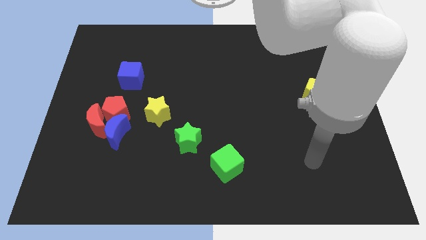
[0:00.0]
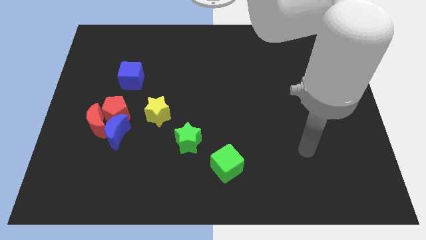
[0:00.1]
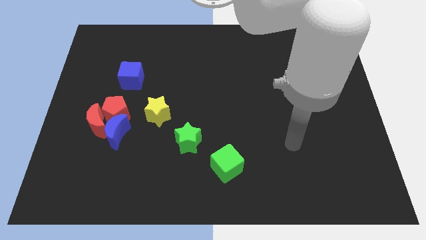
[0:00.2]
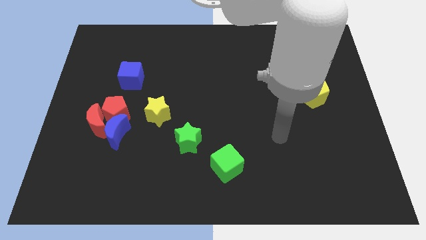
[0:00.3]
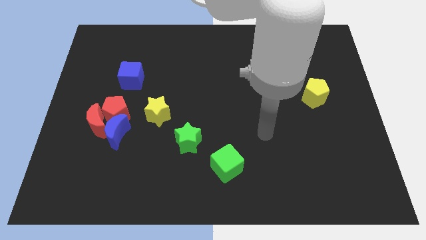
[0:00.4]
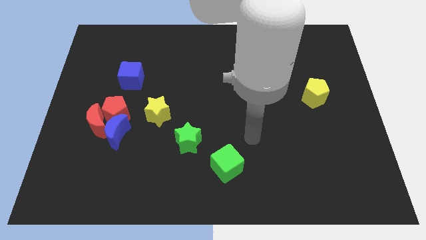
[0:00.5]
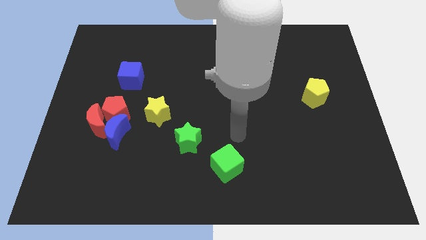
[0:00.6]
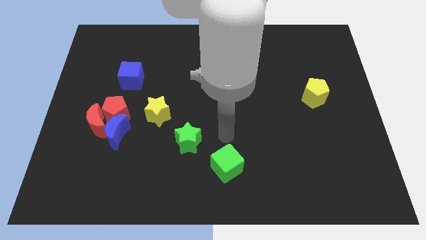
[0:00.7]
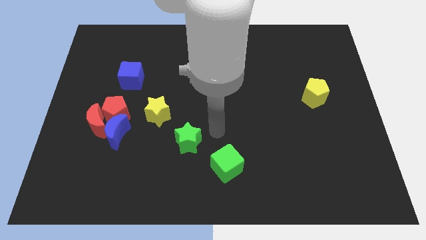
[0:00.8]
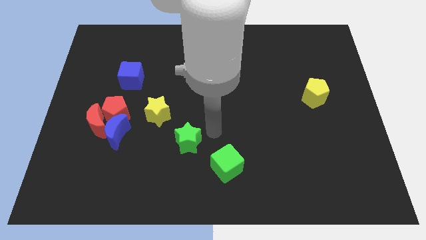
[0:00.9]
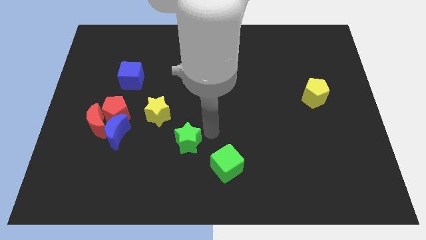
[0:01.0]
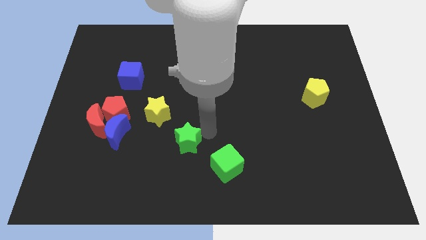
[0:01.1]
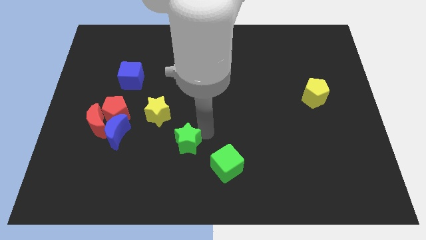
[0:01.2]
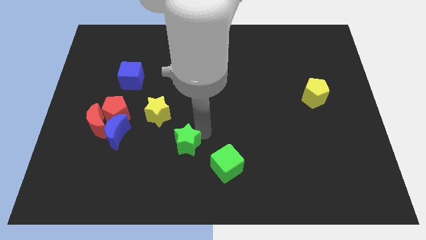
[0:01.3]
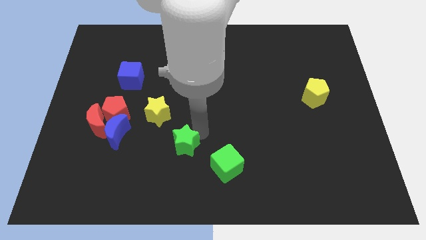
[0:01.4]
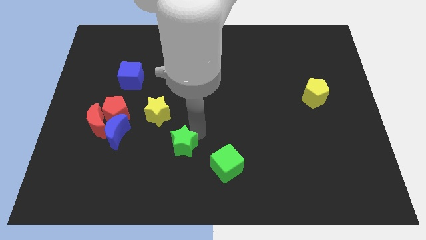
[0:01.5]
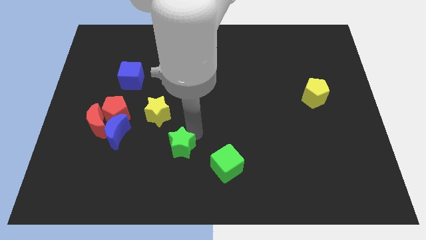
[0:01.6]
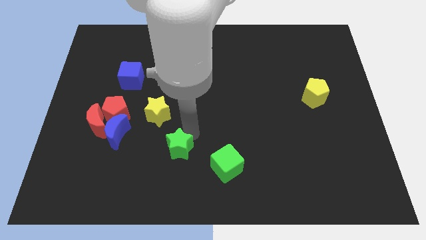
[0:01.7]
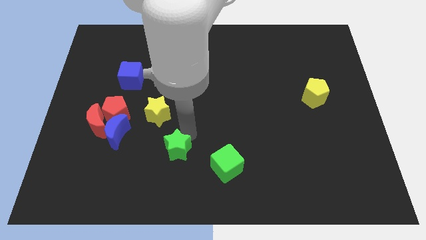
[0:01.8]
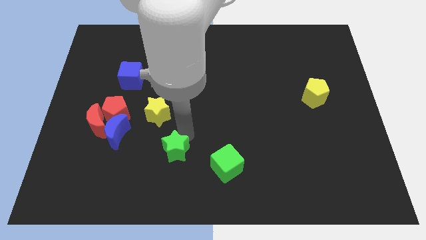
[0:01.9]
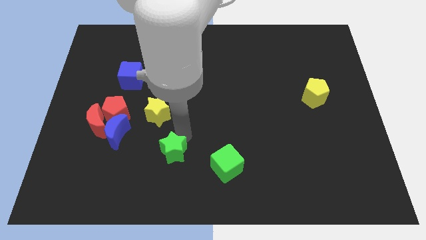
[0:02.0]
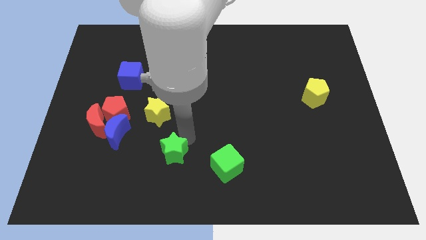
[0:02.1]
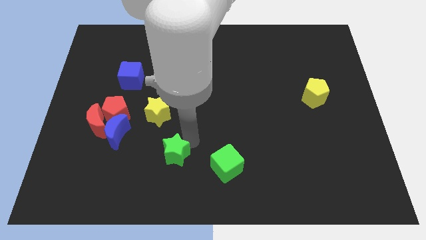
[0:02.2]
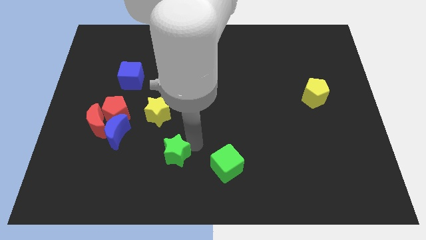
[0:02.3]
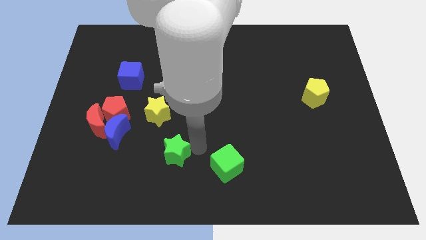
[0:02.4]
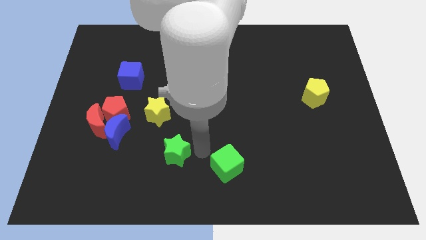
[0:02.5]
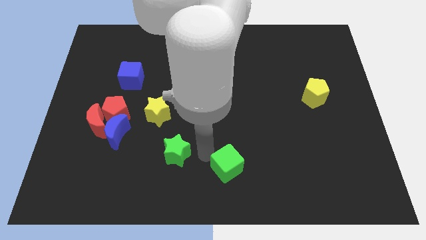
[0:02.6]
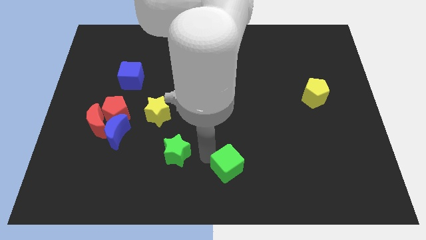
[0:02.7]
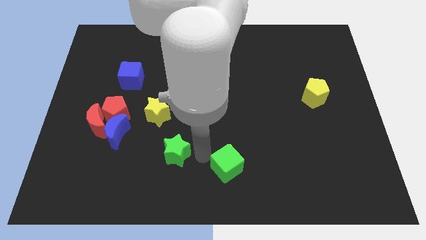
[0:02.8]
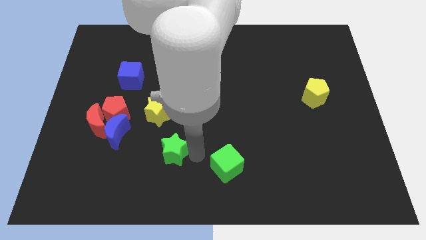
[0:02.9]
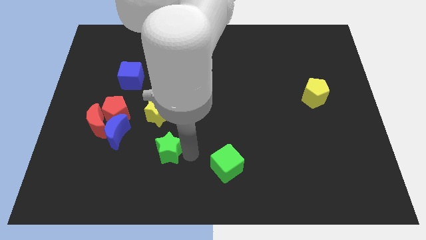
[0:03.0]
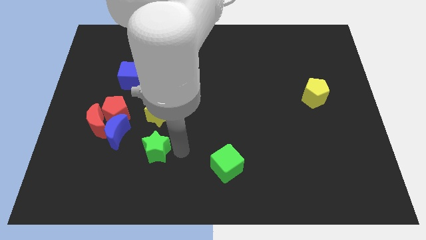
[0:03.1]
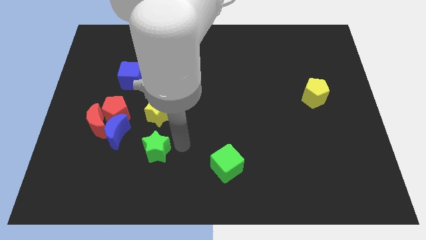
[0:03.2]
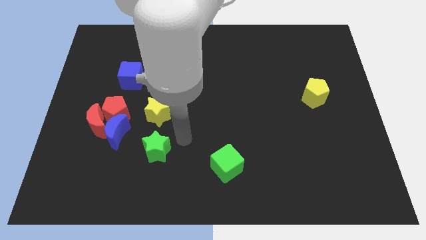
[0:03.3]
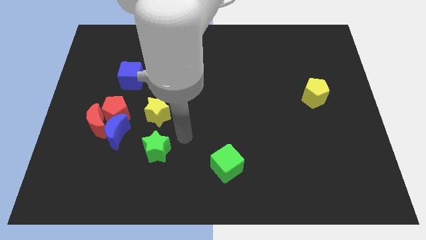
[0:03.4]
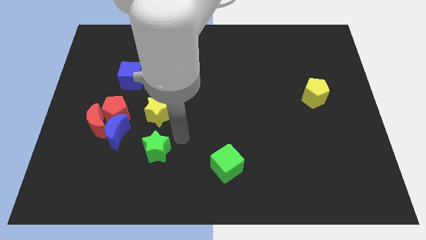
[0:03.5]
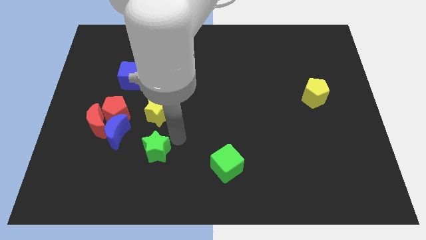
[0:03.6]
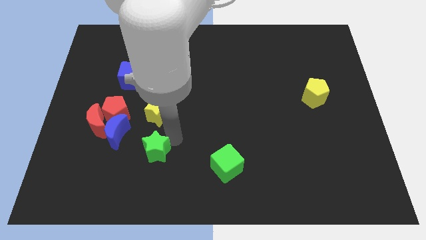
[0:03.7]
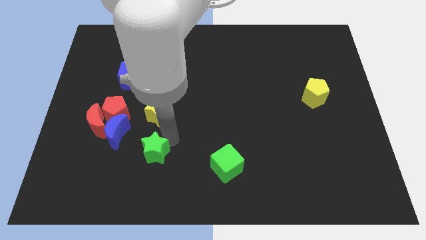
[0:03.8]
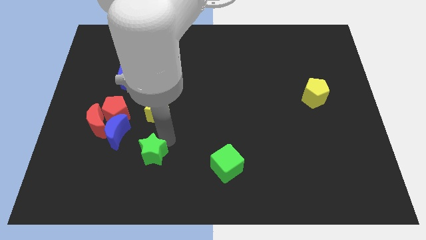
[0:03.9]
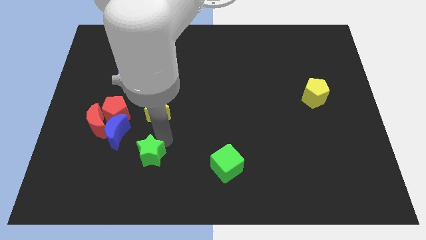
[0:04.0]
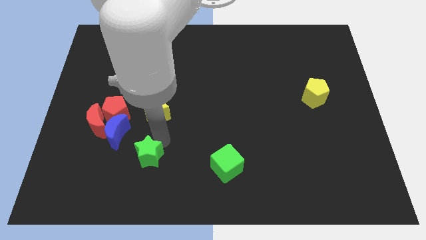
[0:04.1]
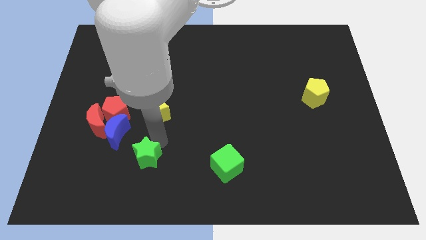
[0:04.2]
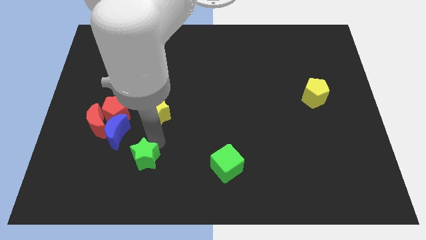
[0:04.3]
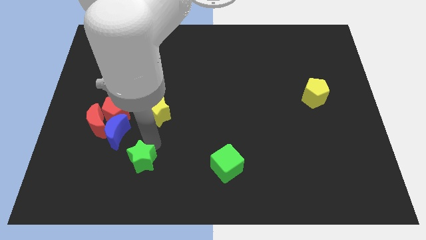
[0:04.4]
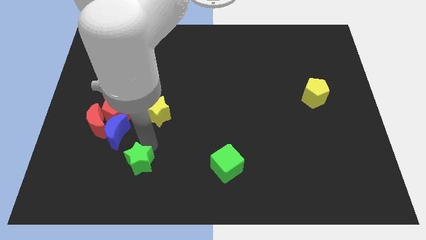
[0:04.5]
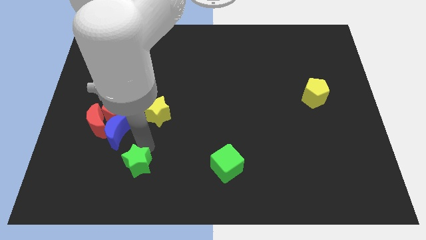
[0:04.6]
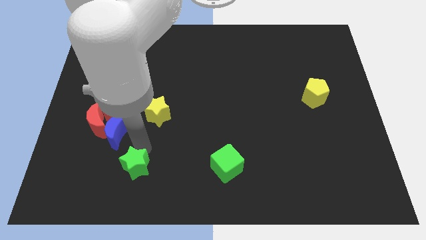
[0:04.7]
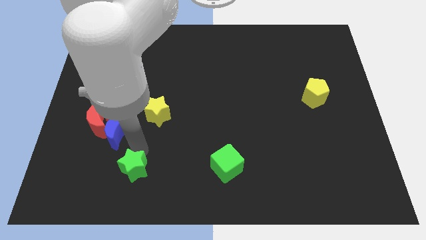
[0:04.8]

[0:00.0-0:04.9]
put the green star to the bottom of the blue moon

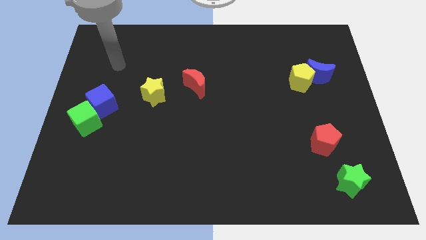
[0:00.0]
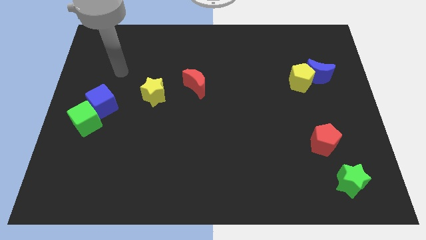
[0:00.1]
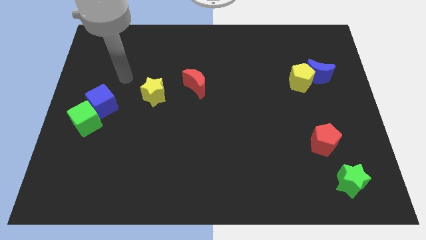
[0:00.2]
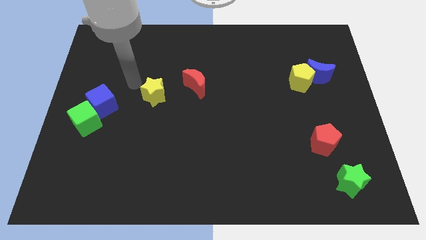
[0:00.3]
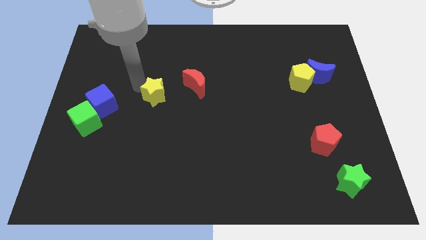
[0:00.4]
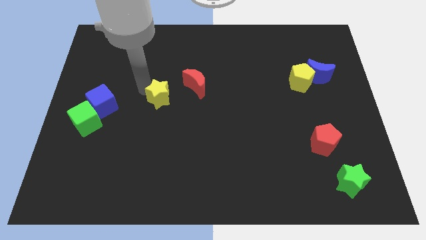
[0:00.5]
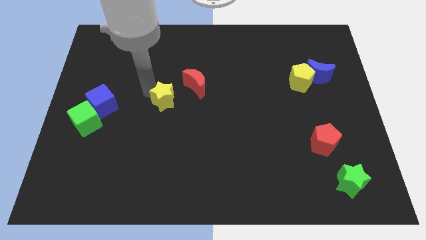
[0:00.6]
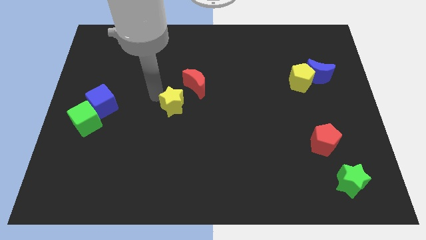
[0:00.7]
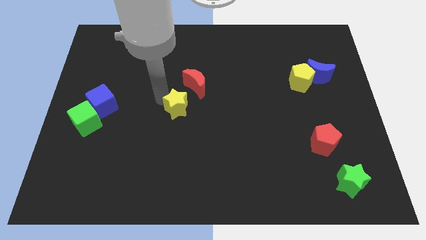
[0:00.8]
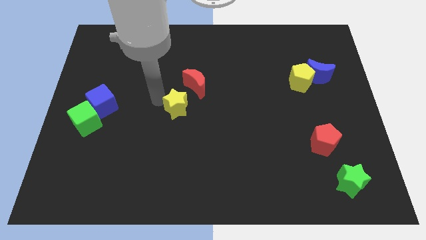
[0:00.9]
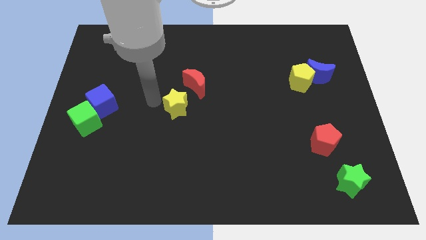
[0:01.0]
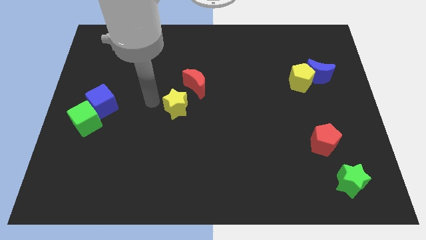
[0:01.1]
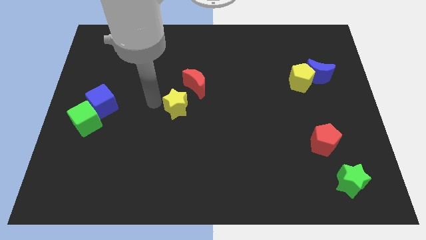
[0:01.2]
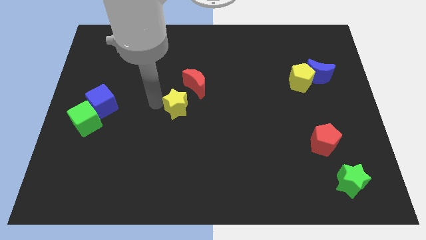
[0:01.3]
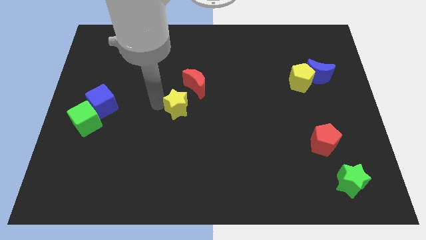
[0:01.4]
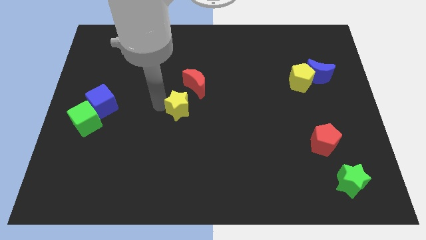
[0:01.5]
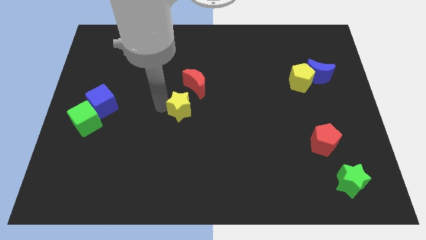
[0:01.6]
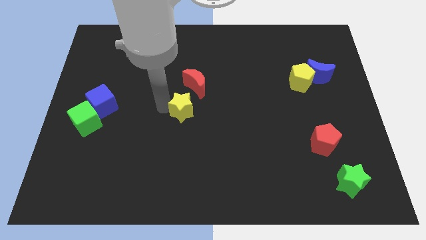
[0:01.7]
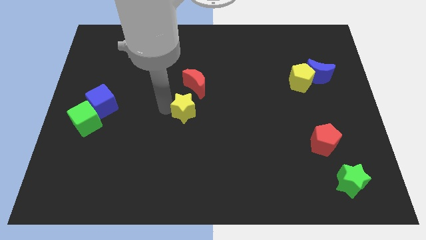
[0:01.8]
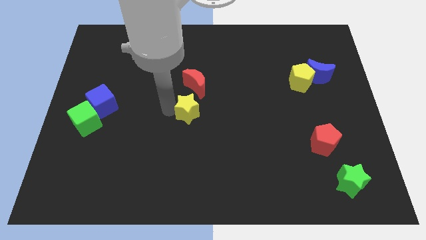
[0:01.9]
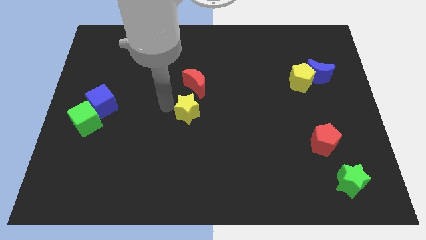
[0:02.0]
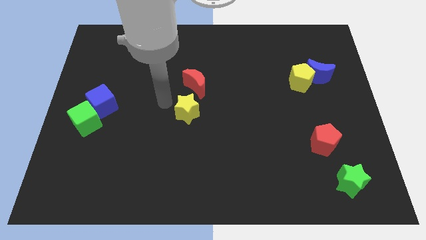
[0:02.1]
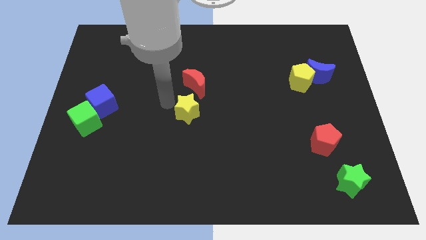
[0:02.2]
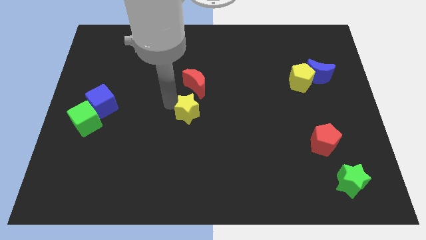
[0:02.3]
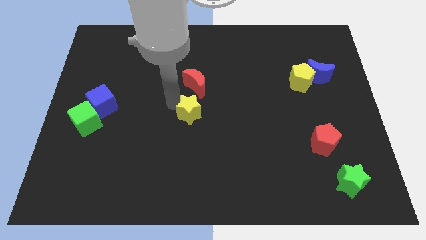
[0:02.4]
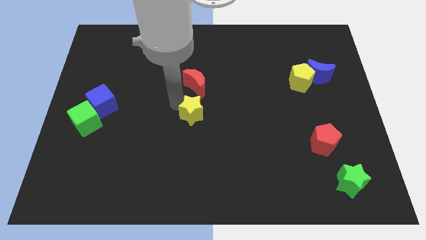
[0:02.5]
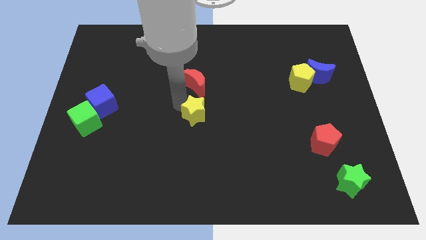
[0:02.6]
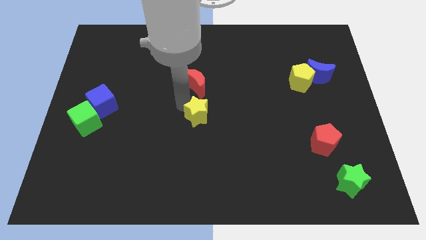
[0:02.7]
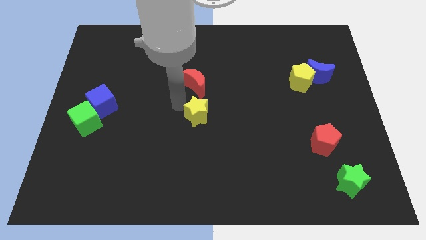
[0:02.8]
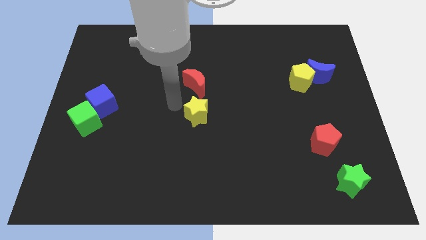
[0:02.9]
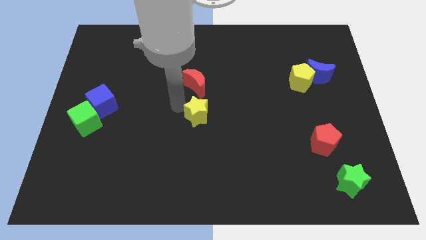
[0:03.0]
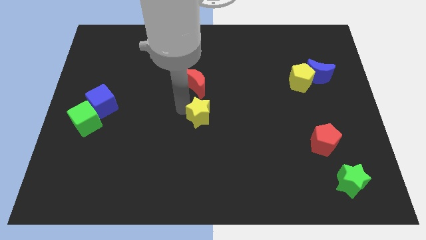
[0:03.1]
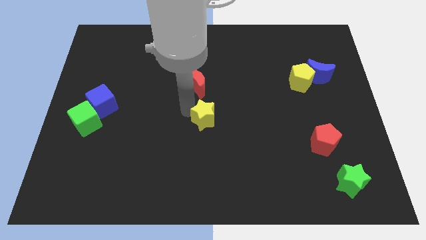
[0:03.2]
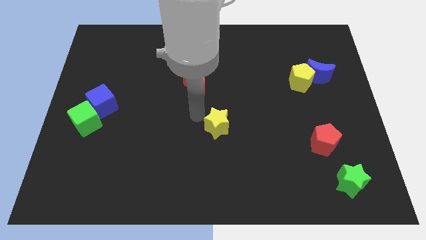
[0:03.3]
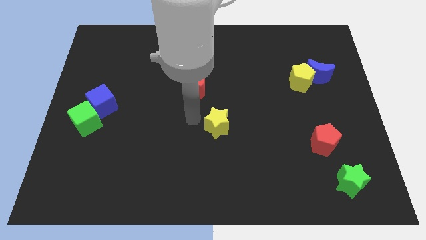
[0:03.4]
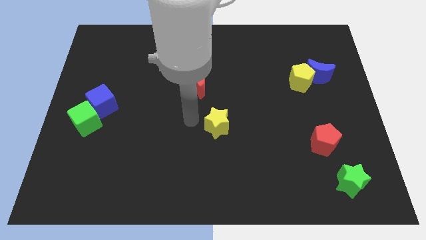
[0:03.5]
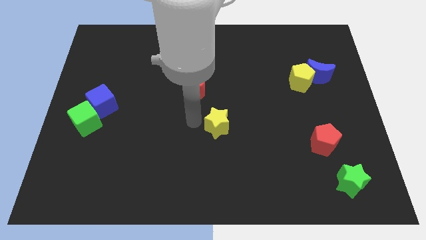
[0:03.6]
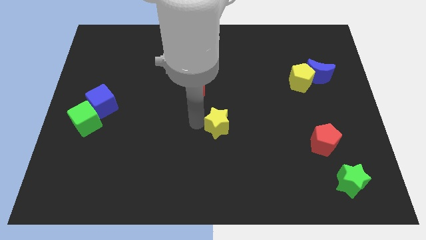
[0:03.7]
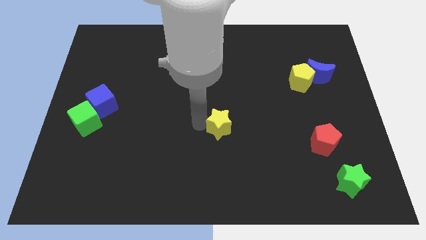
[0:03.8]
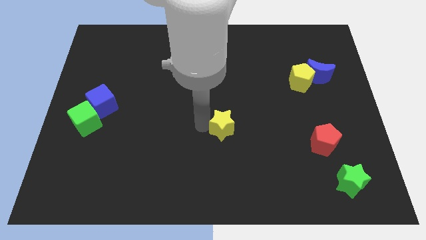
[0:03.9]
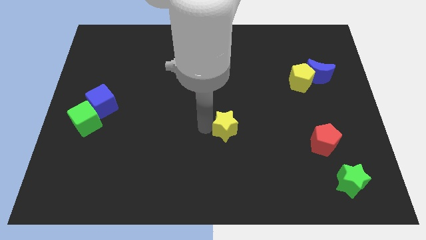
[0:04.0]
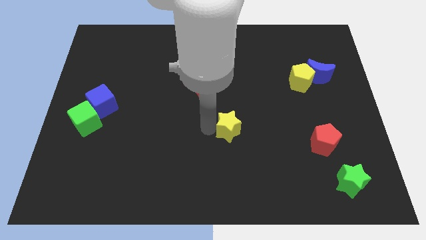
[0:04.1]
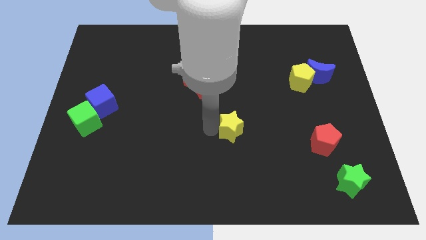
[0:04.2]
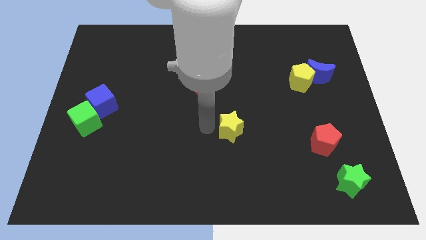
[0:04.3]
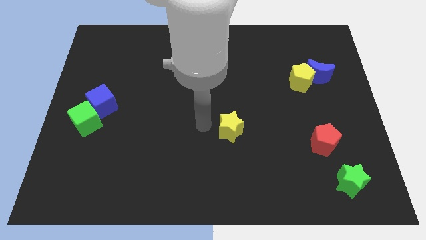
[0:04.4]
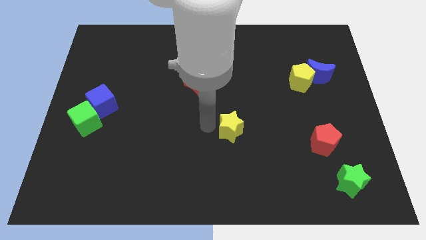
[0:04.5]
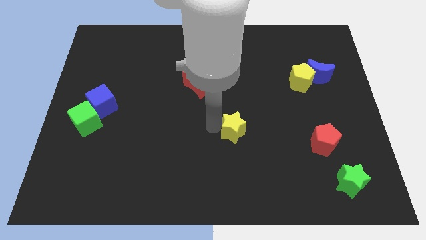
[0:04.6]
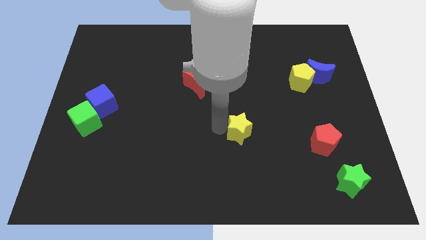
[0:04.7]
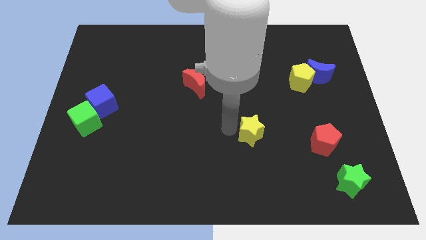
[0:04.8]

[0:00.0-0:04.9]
push the yellow star just left of the red pentagon
